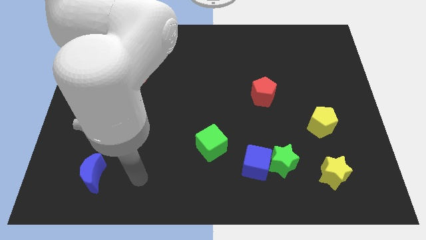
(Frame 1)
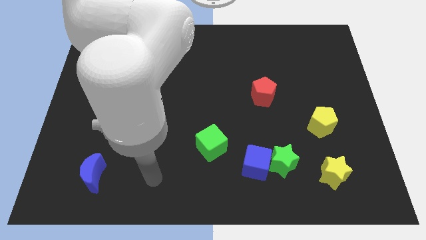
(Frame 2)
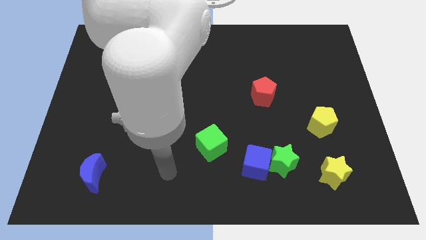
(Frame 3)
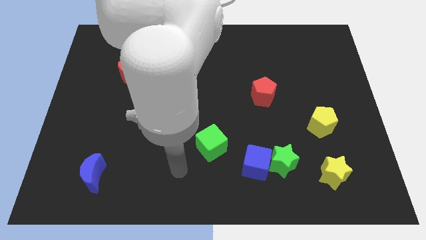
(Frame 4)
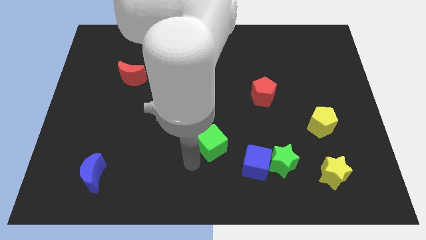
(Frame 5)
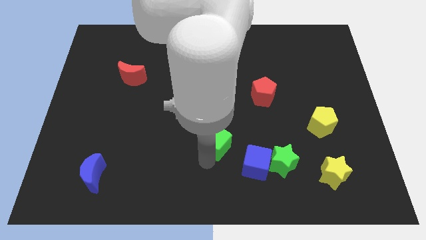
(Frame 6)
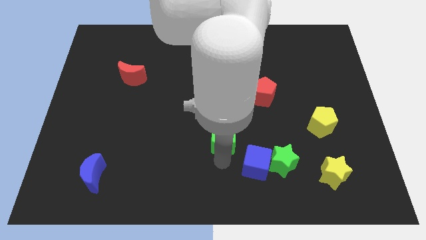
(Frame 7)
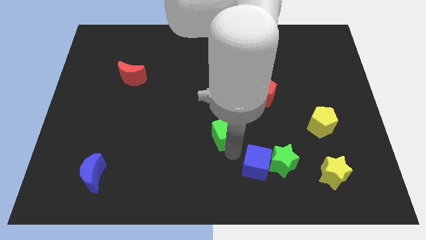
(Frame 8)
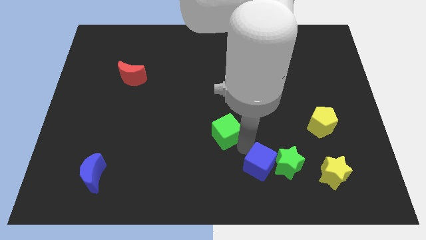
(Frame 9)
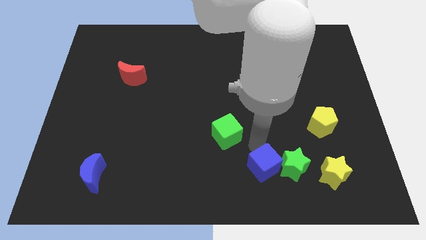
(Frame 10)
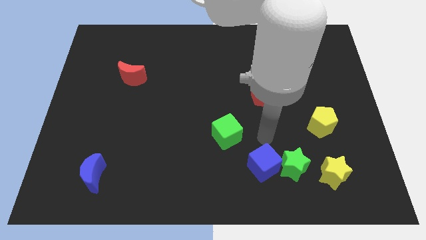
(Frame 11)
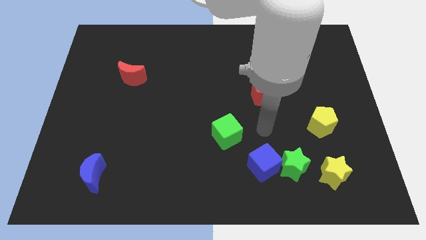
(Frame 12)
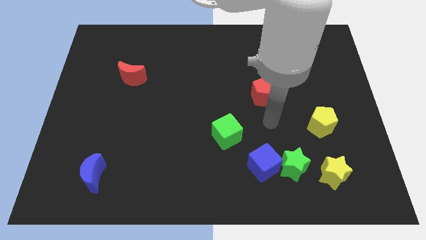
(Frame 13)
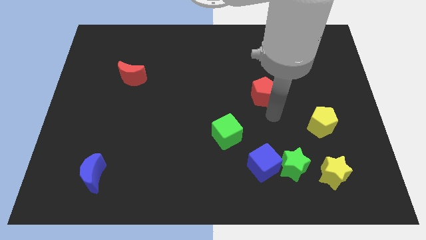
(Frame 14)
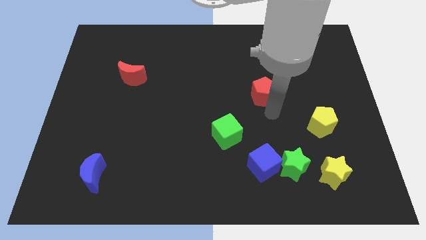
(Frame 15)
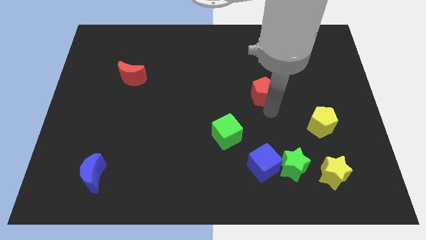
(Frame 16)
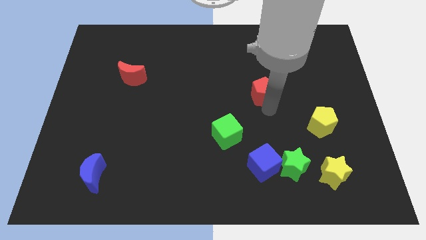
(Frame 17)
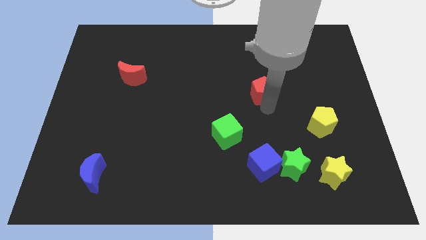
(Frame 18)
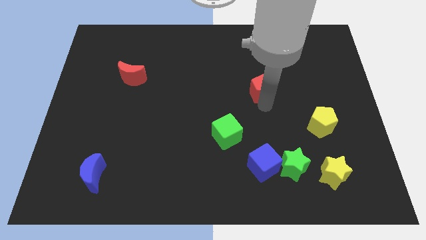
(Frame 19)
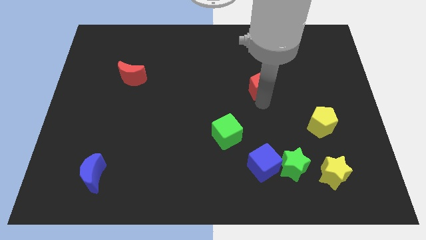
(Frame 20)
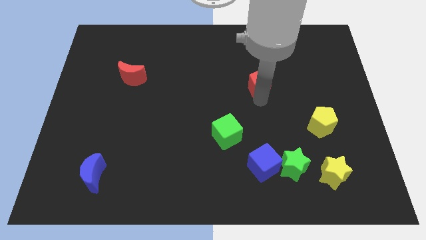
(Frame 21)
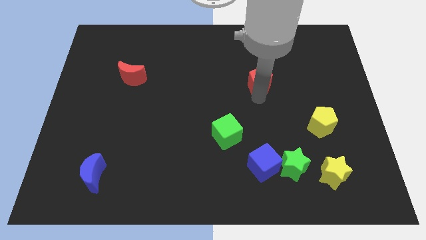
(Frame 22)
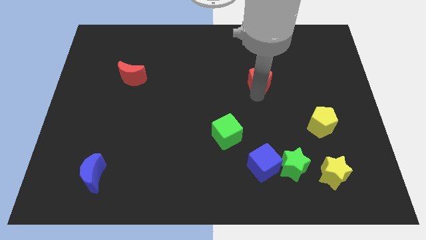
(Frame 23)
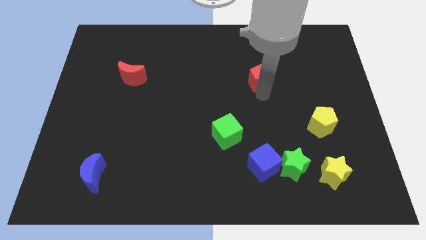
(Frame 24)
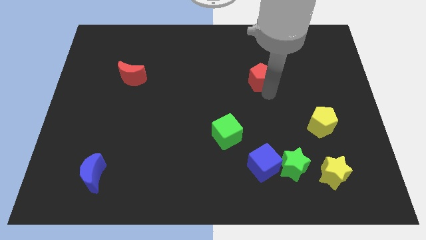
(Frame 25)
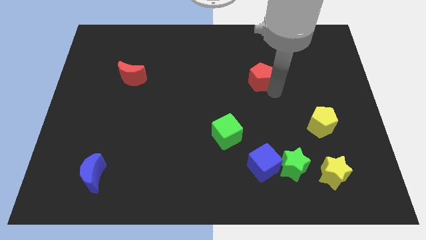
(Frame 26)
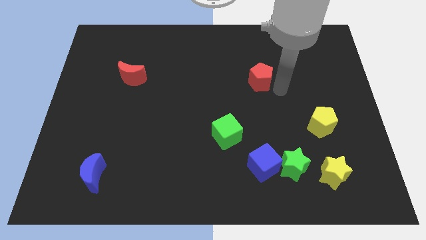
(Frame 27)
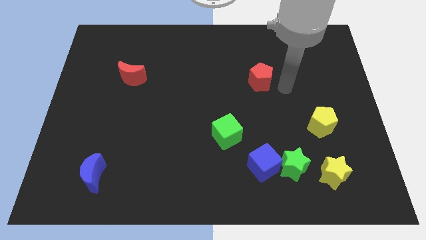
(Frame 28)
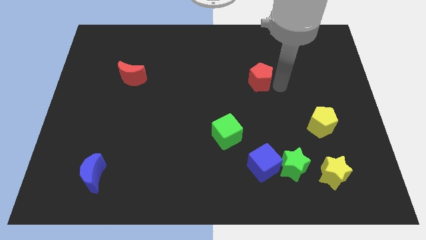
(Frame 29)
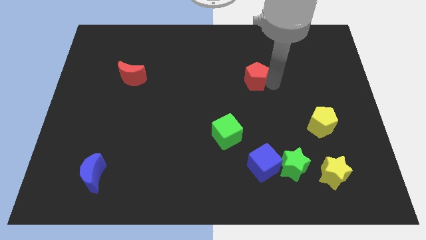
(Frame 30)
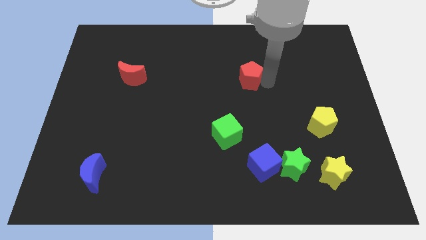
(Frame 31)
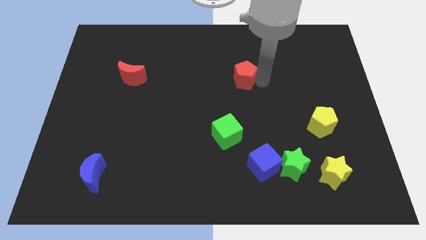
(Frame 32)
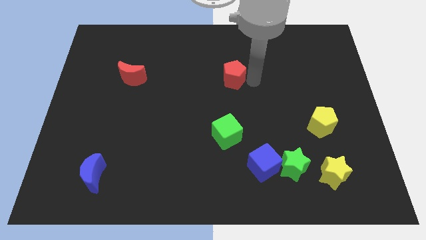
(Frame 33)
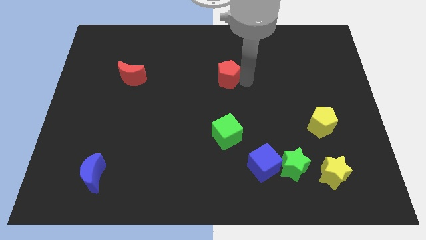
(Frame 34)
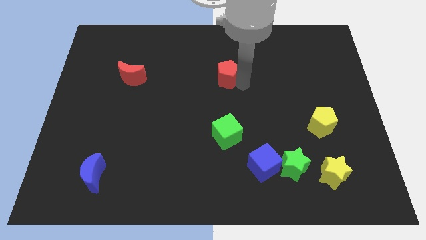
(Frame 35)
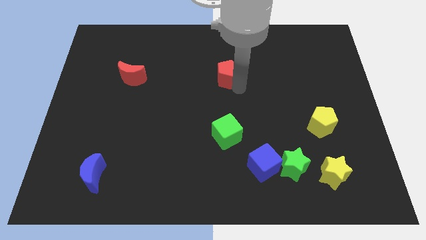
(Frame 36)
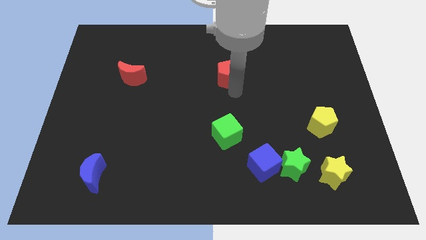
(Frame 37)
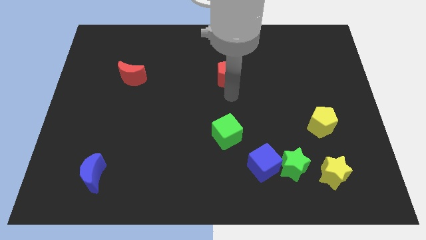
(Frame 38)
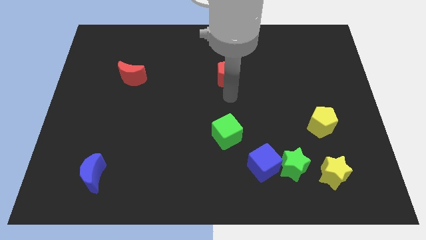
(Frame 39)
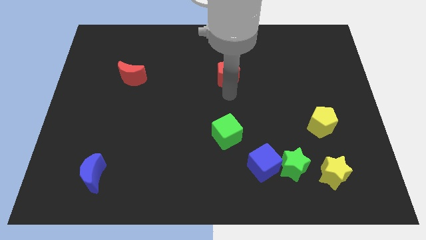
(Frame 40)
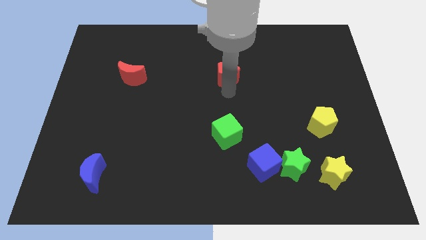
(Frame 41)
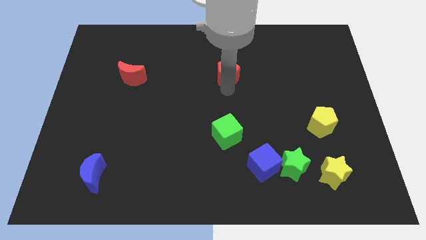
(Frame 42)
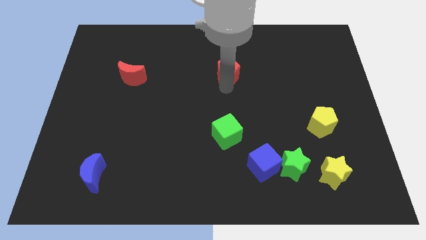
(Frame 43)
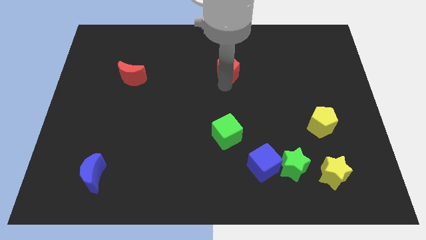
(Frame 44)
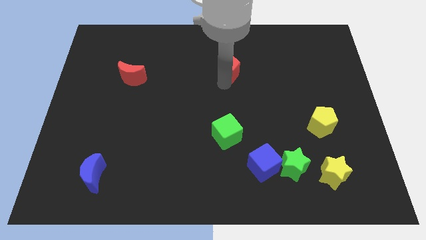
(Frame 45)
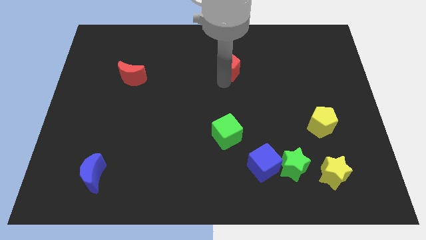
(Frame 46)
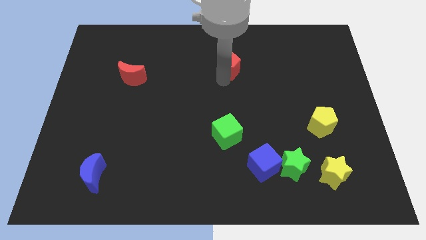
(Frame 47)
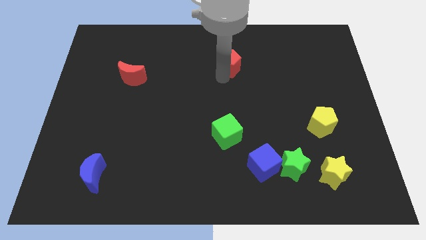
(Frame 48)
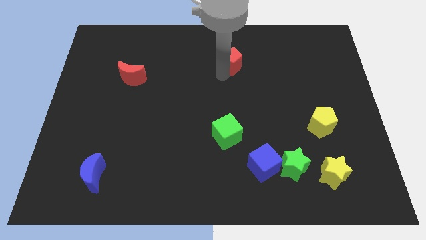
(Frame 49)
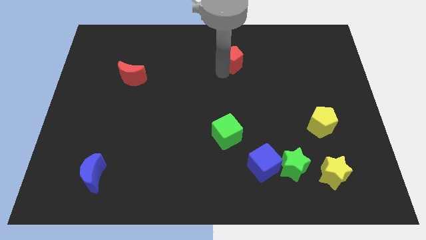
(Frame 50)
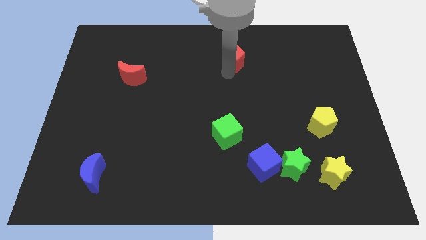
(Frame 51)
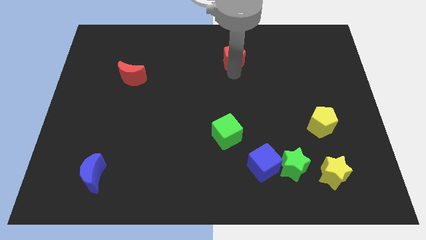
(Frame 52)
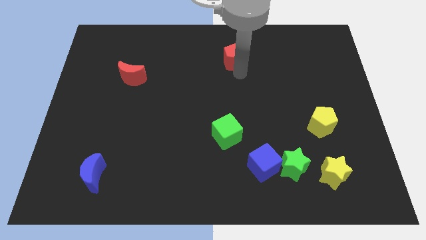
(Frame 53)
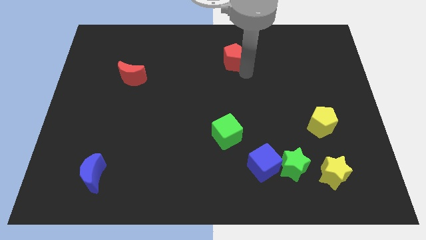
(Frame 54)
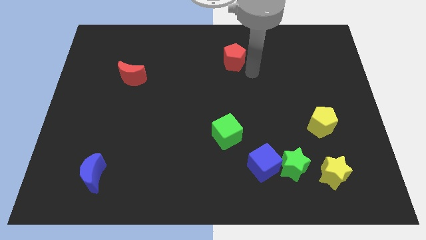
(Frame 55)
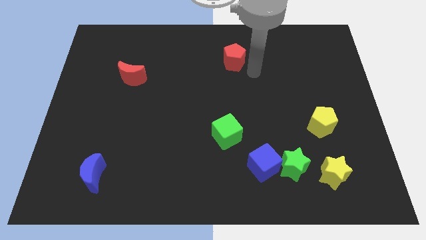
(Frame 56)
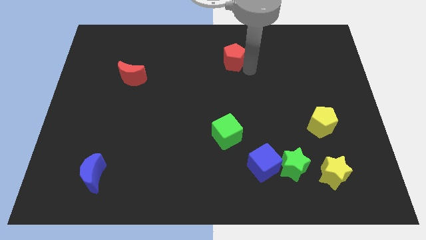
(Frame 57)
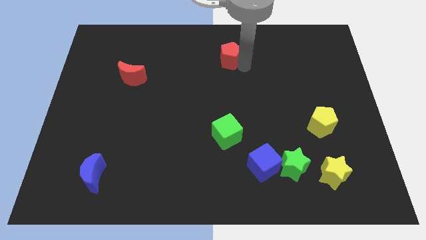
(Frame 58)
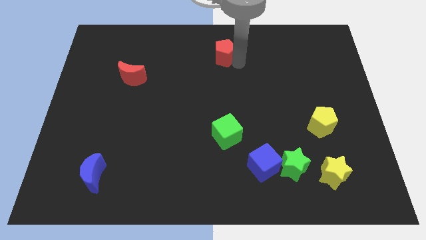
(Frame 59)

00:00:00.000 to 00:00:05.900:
slide the red pentagon to the top
